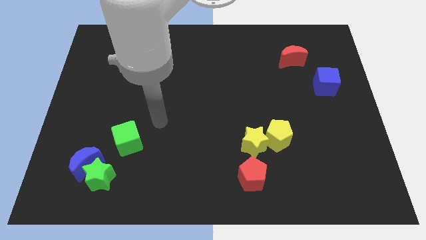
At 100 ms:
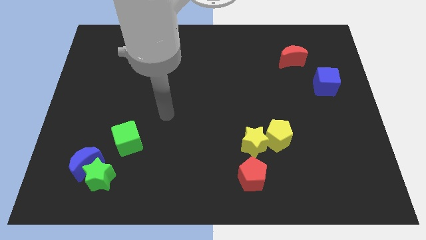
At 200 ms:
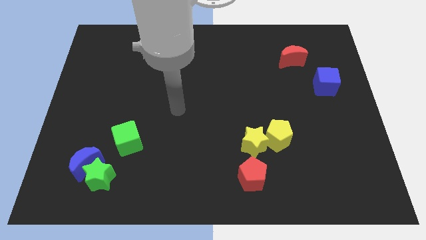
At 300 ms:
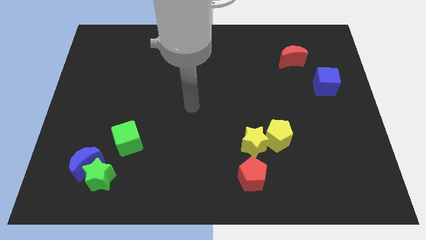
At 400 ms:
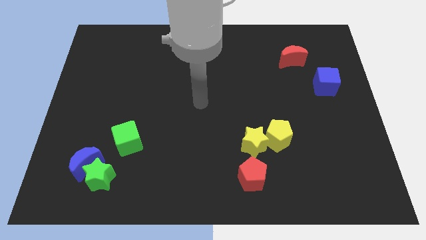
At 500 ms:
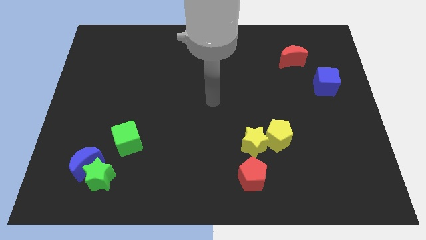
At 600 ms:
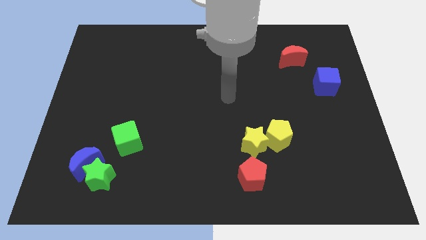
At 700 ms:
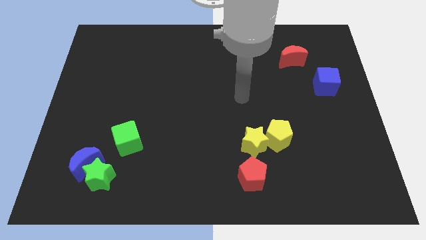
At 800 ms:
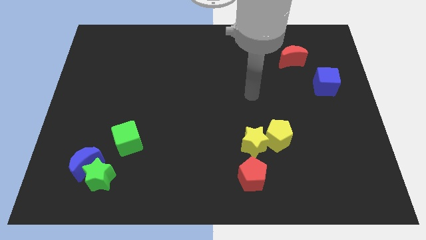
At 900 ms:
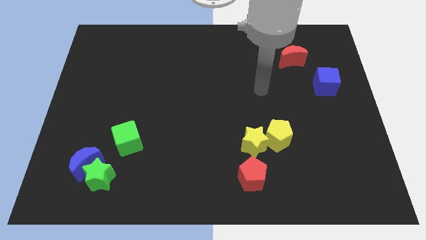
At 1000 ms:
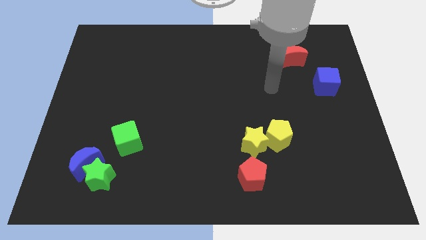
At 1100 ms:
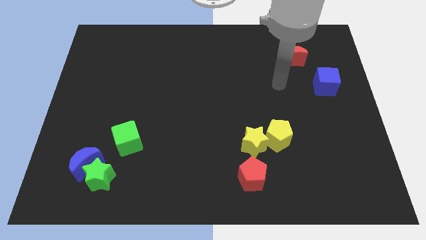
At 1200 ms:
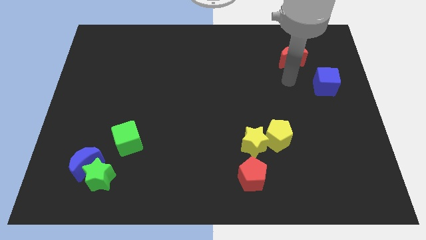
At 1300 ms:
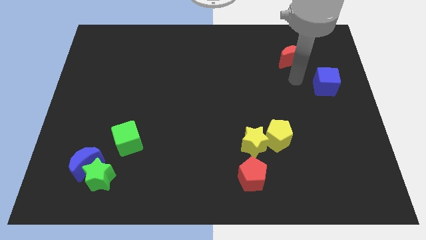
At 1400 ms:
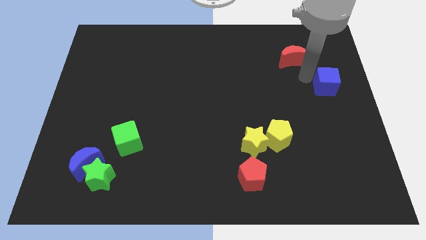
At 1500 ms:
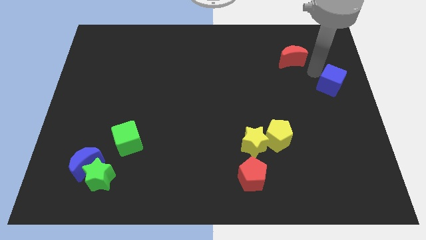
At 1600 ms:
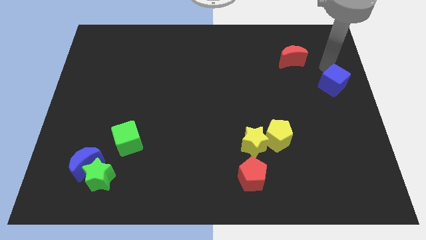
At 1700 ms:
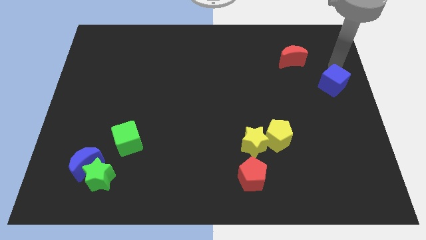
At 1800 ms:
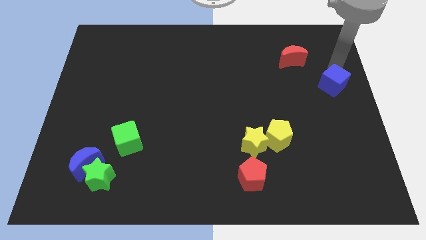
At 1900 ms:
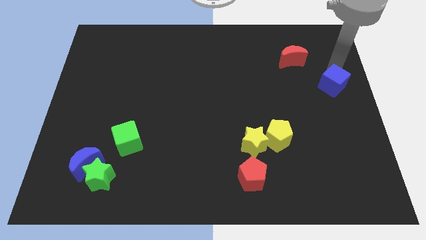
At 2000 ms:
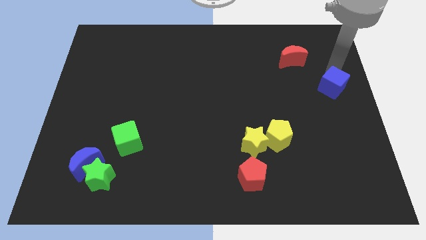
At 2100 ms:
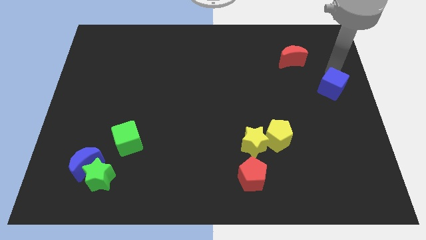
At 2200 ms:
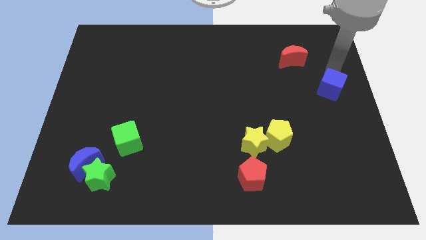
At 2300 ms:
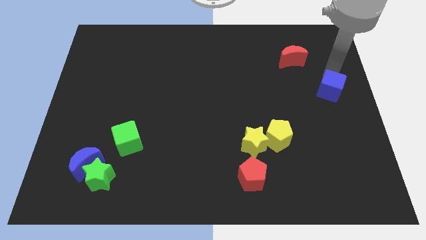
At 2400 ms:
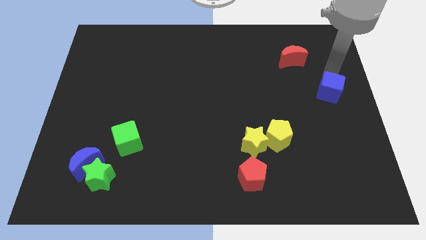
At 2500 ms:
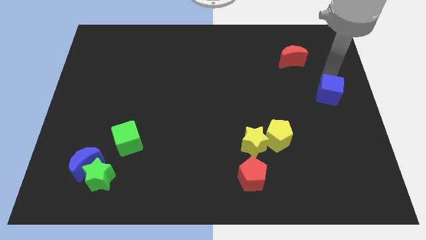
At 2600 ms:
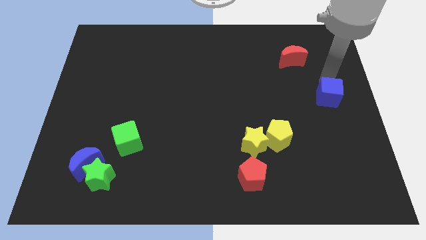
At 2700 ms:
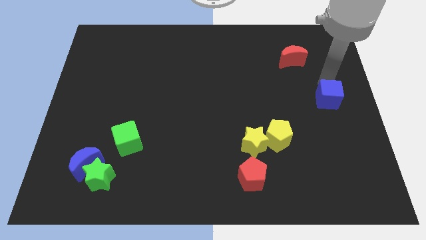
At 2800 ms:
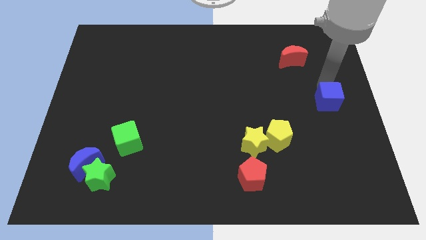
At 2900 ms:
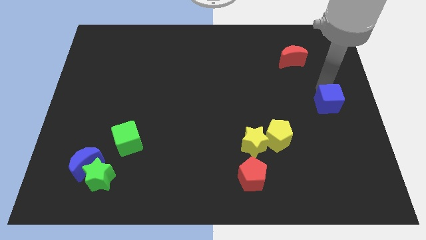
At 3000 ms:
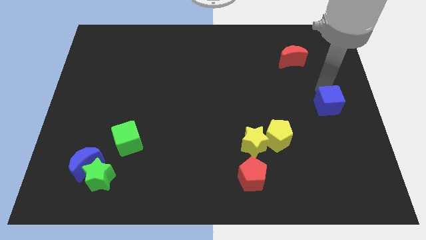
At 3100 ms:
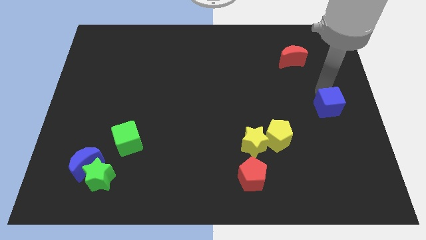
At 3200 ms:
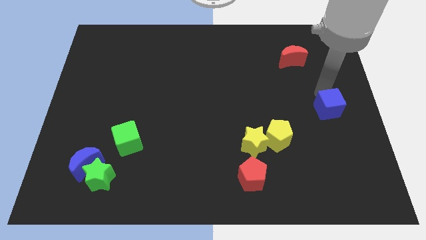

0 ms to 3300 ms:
push the blue cube down a bit

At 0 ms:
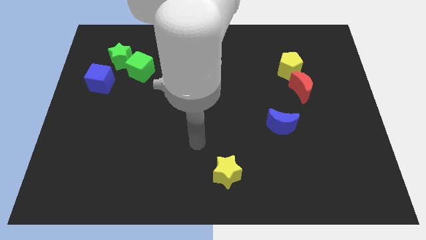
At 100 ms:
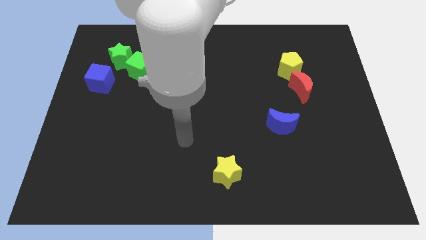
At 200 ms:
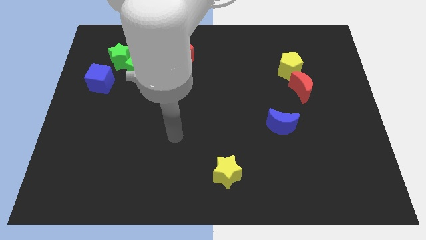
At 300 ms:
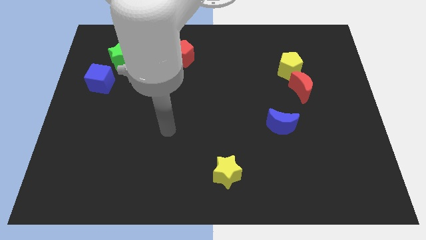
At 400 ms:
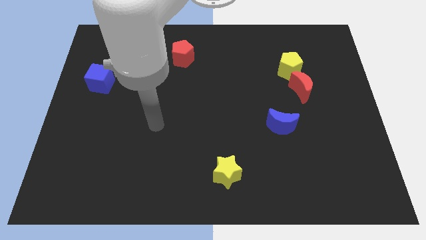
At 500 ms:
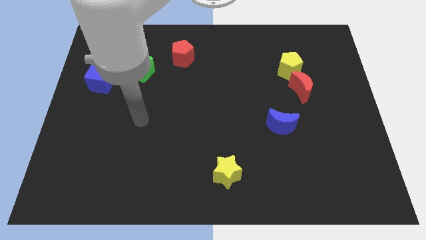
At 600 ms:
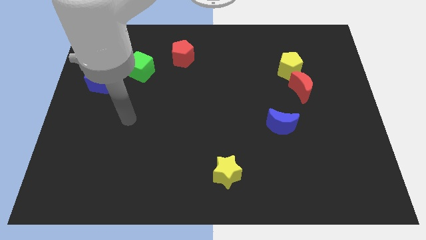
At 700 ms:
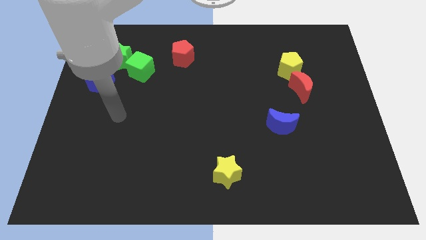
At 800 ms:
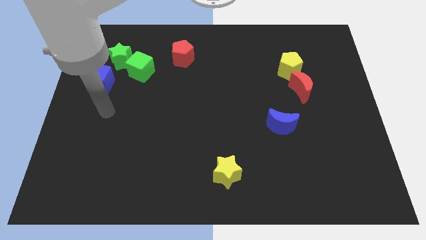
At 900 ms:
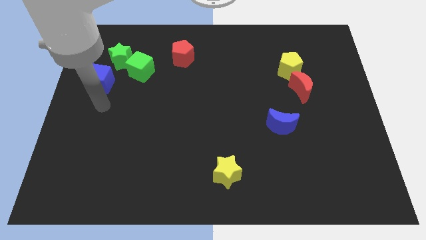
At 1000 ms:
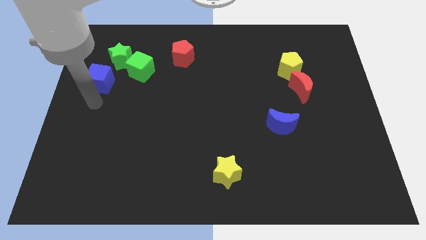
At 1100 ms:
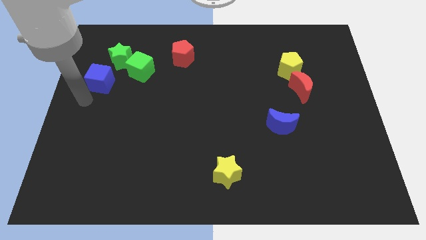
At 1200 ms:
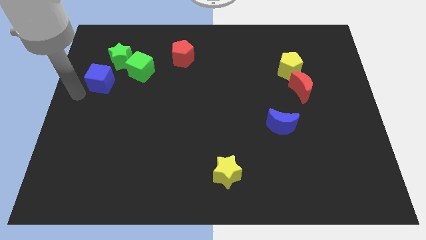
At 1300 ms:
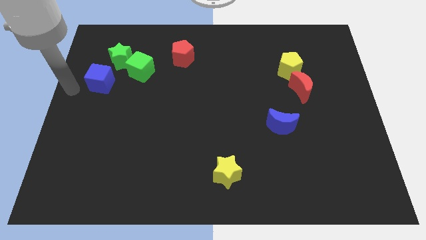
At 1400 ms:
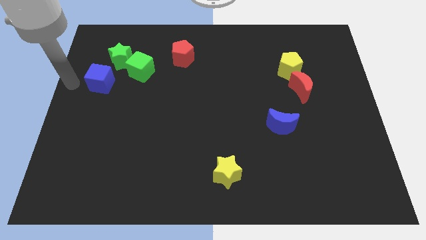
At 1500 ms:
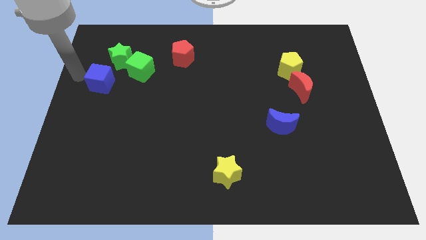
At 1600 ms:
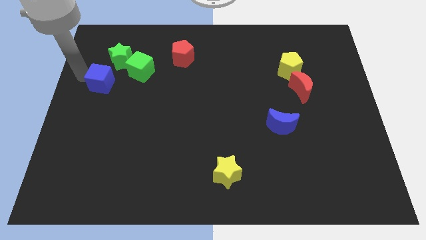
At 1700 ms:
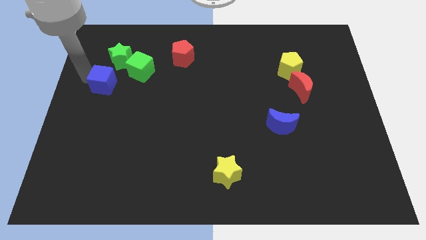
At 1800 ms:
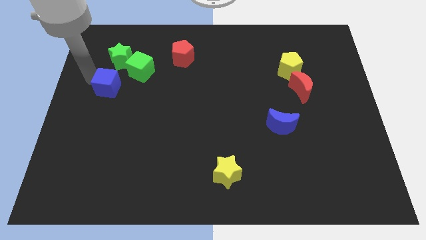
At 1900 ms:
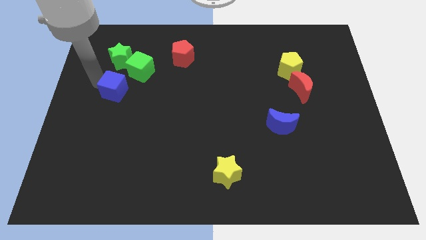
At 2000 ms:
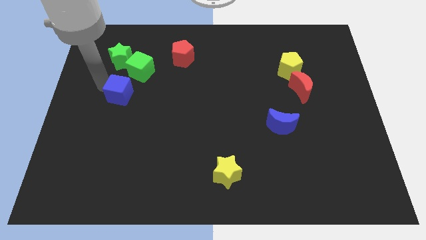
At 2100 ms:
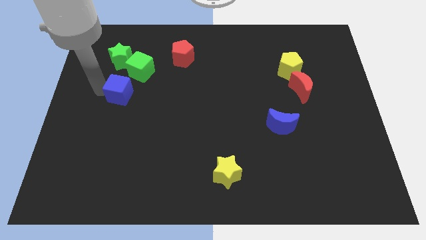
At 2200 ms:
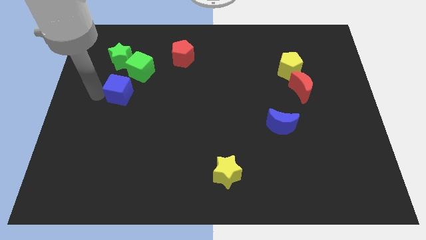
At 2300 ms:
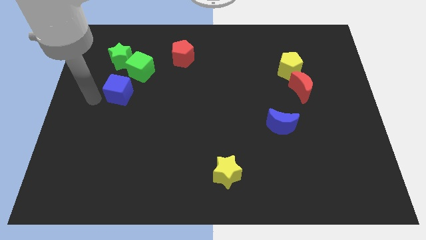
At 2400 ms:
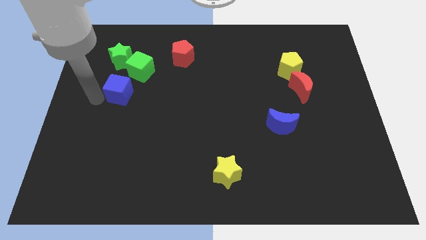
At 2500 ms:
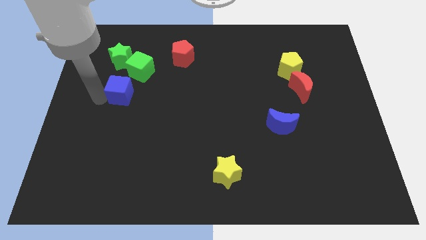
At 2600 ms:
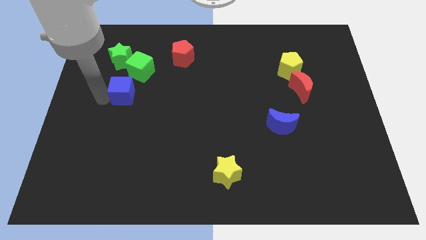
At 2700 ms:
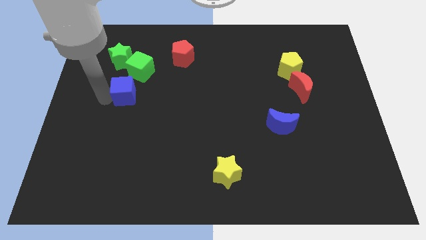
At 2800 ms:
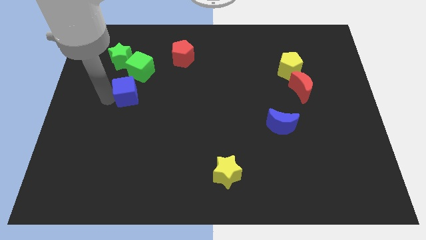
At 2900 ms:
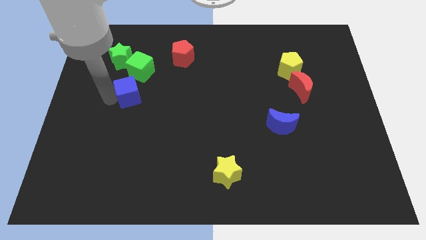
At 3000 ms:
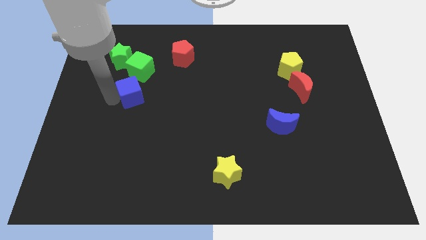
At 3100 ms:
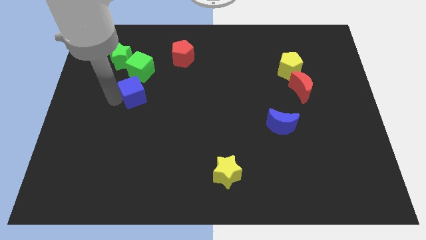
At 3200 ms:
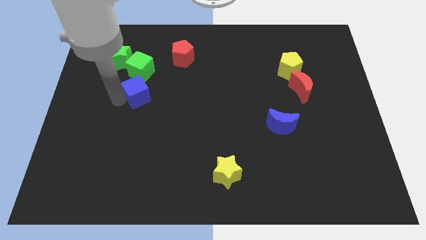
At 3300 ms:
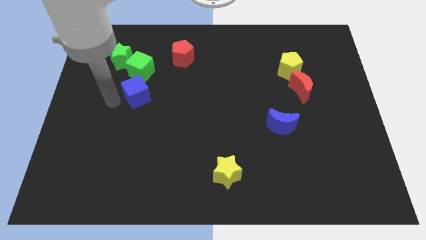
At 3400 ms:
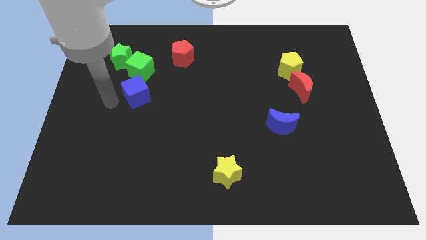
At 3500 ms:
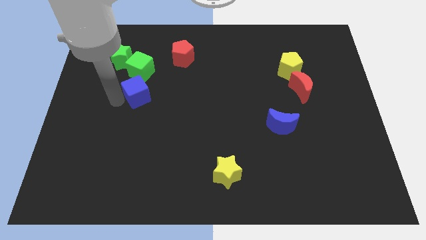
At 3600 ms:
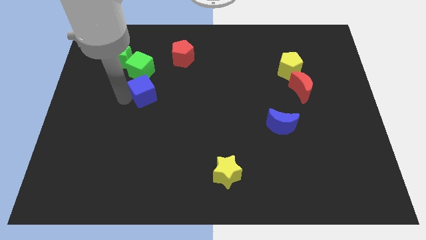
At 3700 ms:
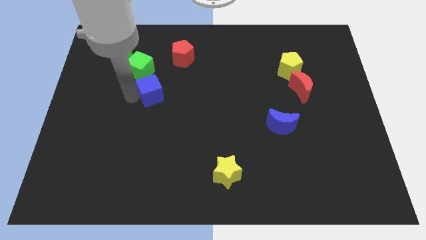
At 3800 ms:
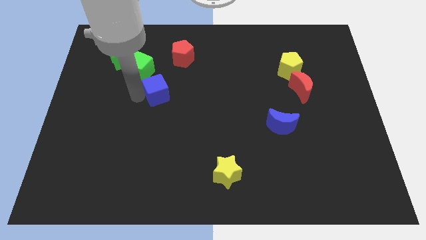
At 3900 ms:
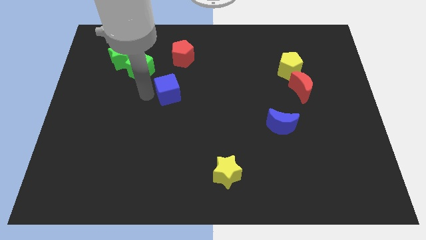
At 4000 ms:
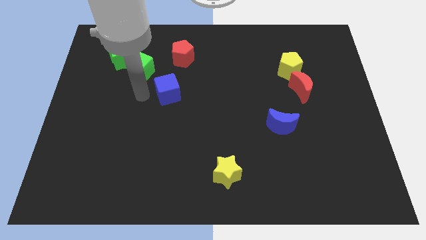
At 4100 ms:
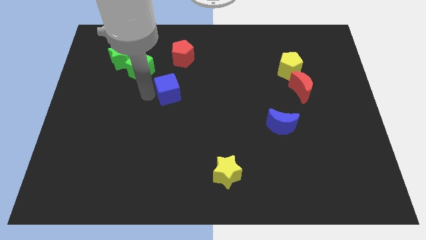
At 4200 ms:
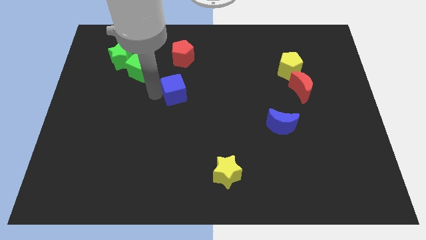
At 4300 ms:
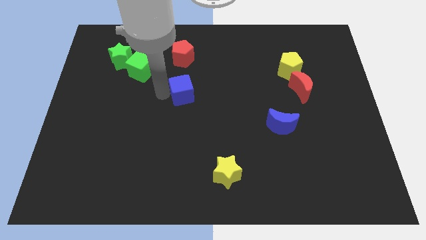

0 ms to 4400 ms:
push the blue cube right

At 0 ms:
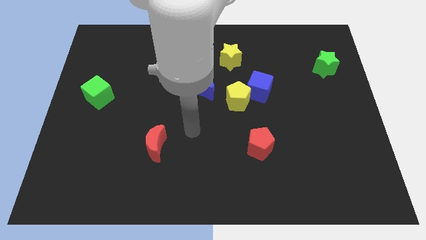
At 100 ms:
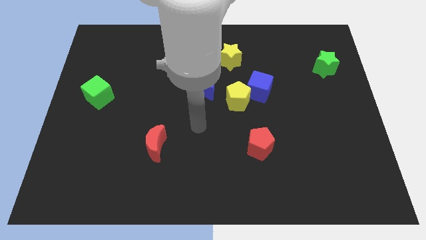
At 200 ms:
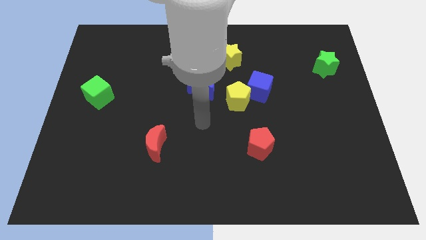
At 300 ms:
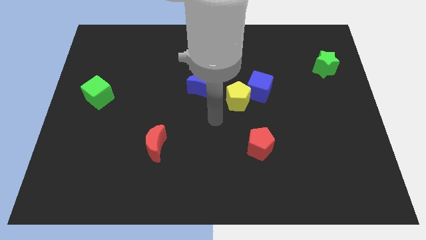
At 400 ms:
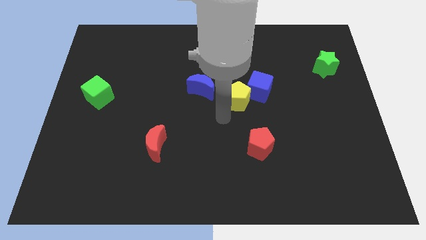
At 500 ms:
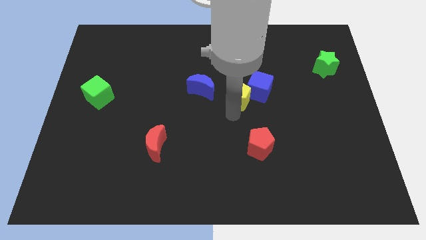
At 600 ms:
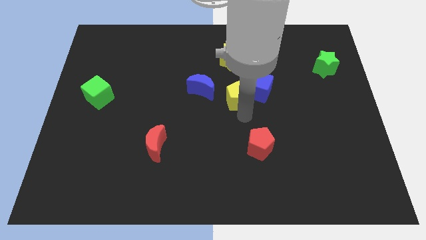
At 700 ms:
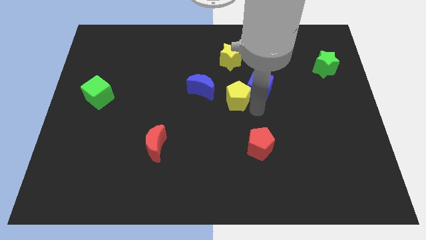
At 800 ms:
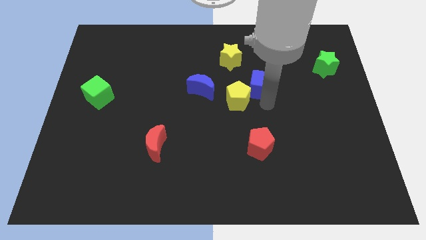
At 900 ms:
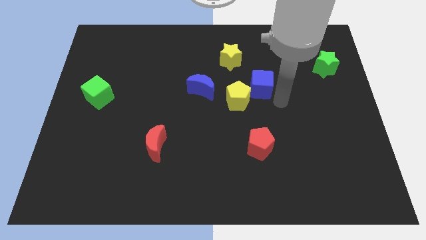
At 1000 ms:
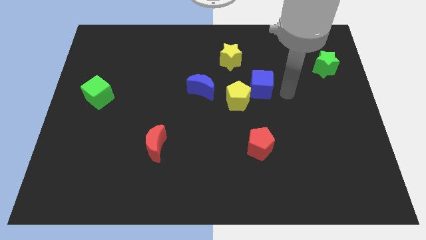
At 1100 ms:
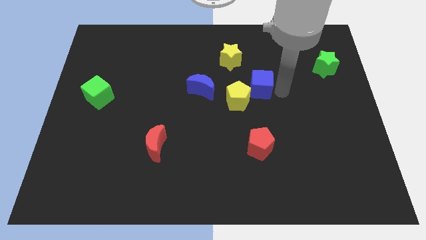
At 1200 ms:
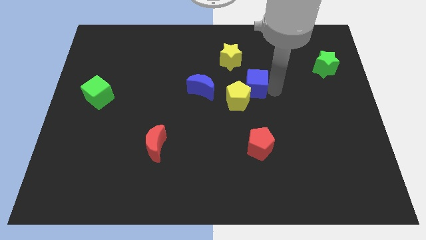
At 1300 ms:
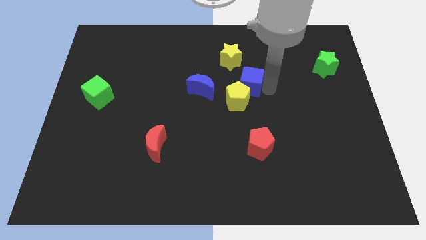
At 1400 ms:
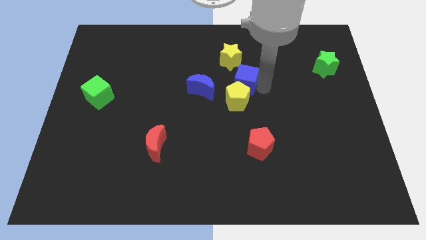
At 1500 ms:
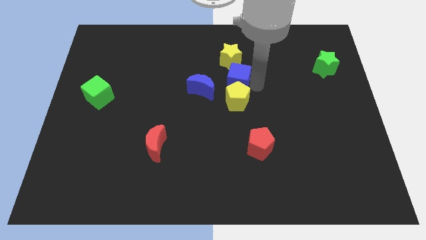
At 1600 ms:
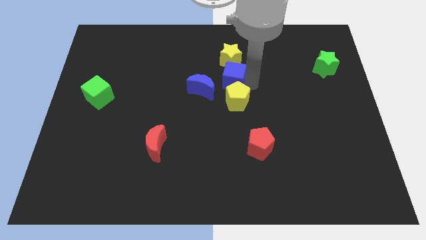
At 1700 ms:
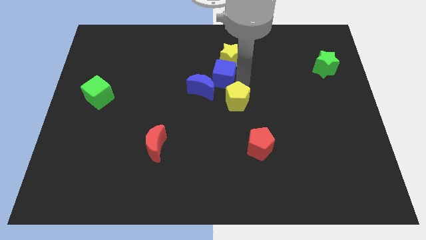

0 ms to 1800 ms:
push the blue cube a bit left
